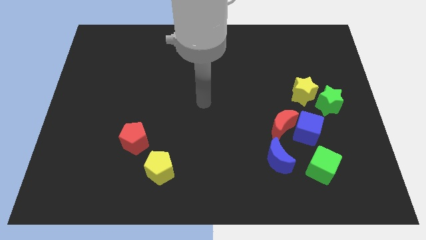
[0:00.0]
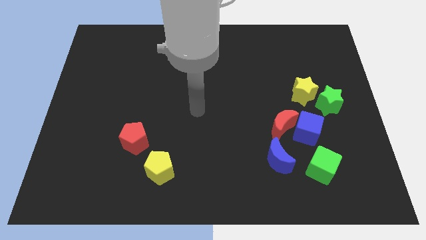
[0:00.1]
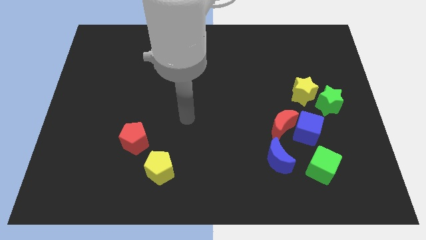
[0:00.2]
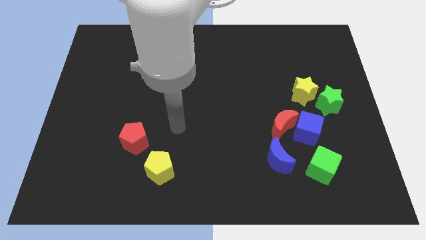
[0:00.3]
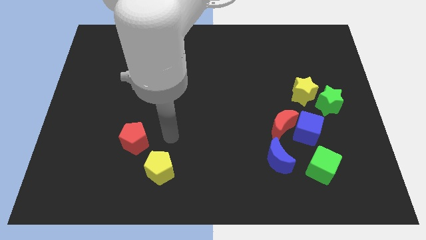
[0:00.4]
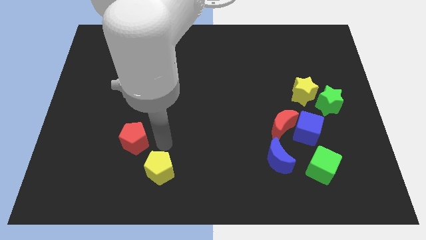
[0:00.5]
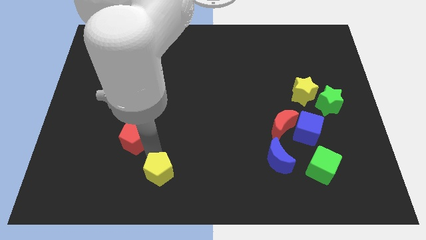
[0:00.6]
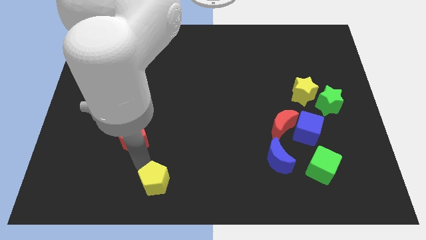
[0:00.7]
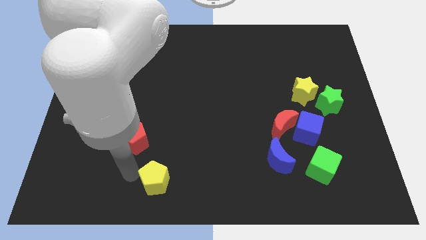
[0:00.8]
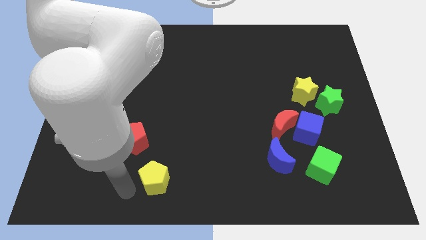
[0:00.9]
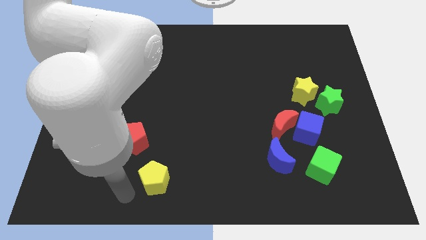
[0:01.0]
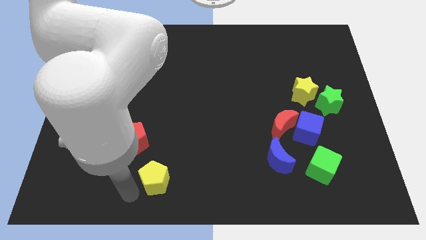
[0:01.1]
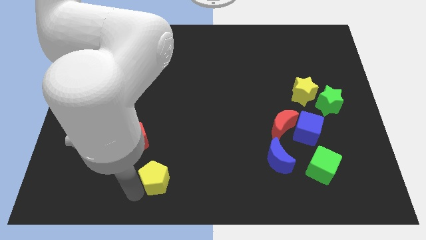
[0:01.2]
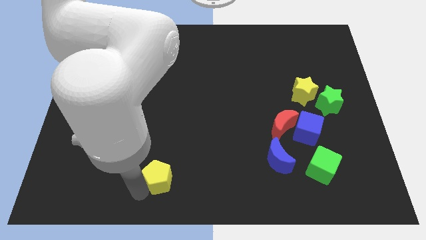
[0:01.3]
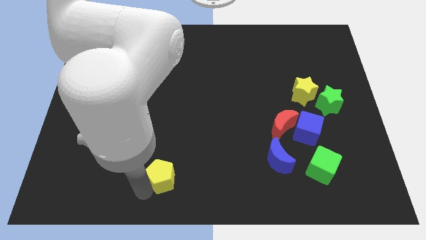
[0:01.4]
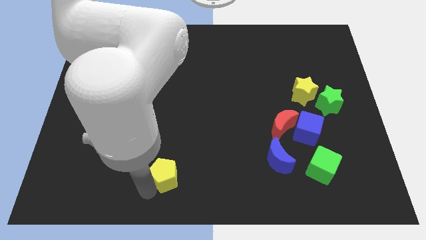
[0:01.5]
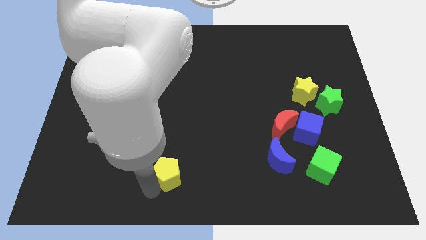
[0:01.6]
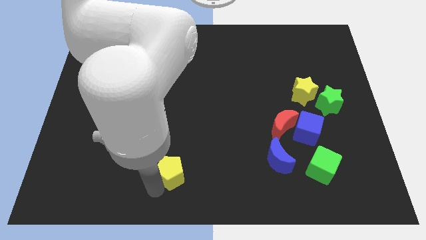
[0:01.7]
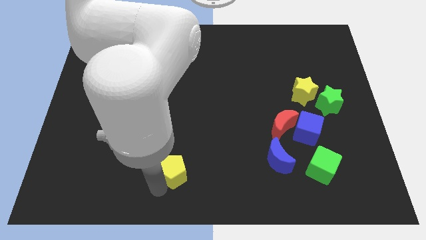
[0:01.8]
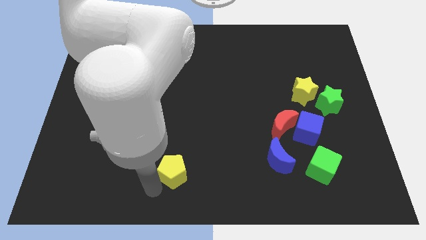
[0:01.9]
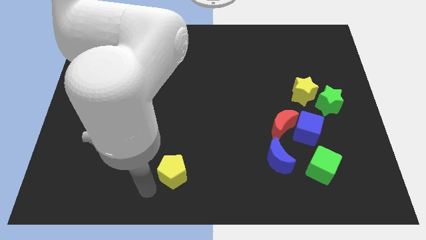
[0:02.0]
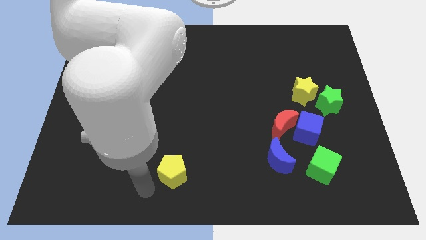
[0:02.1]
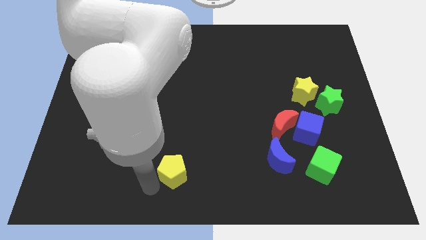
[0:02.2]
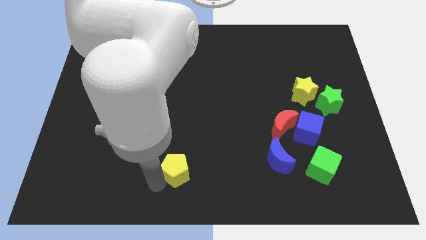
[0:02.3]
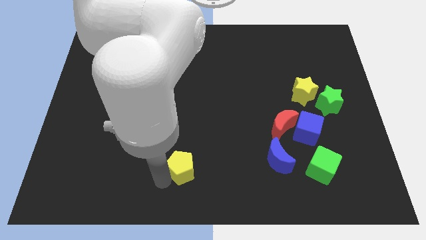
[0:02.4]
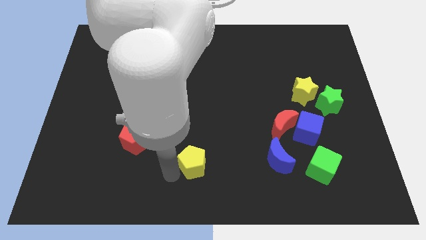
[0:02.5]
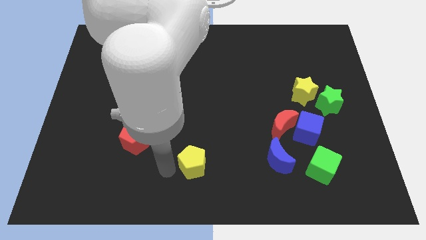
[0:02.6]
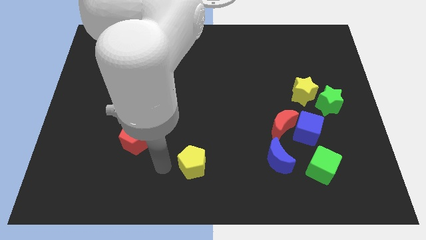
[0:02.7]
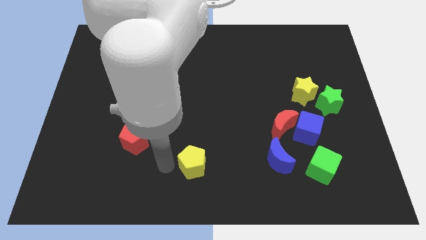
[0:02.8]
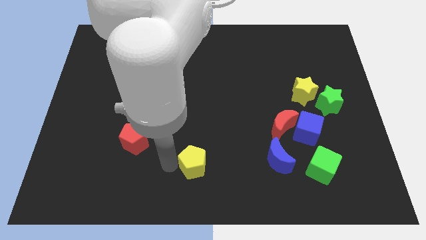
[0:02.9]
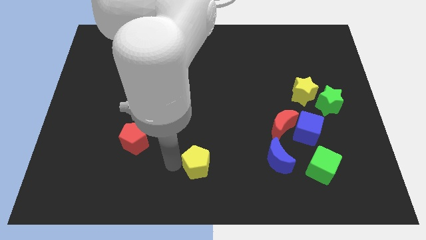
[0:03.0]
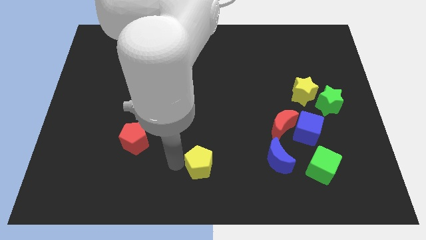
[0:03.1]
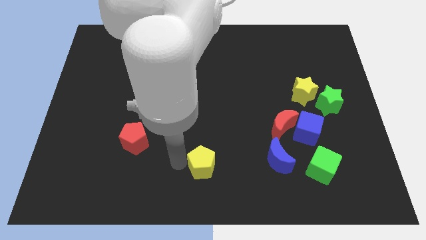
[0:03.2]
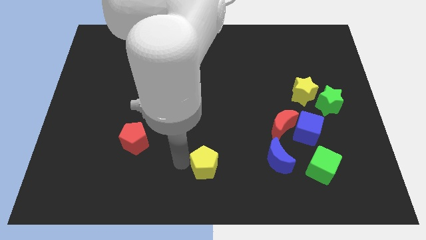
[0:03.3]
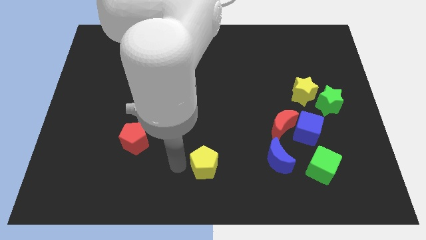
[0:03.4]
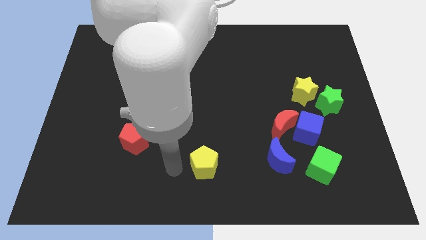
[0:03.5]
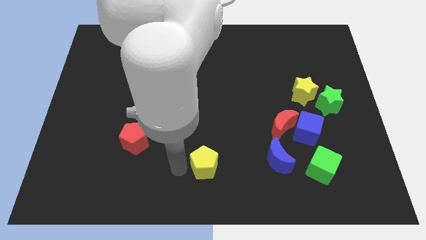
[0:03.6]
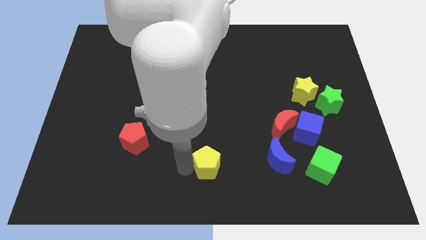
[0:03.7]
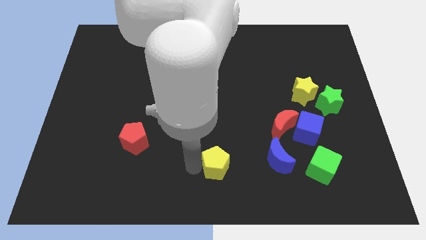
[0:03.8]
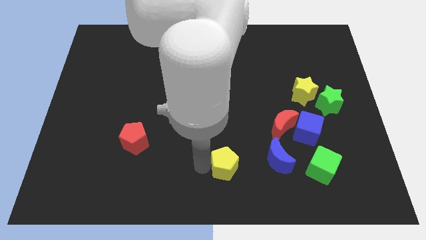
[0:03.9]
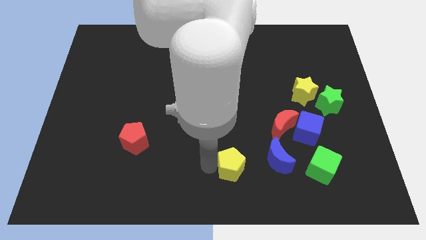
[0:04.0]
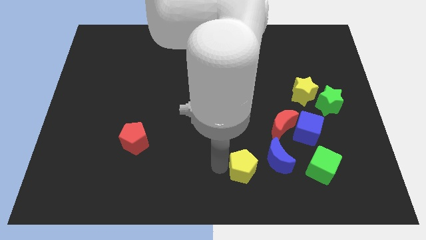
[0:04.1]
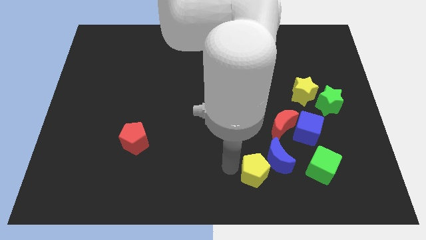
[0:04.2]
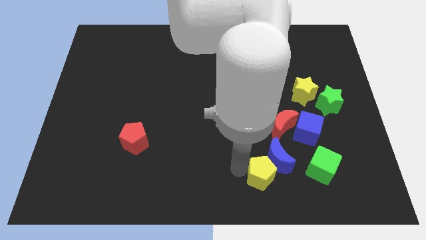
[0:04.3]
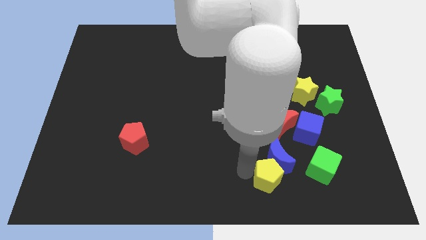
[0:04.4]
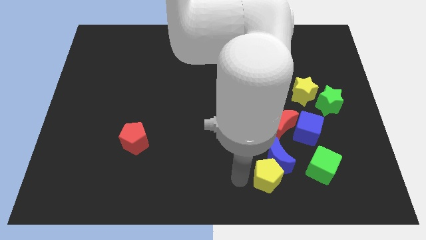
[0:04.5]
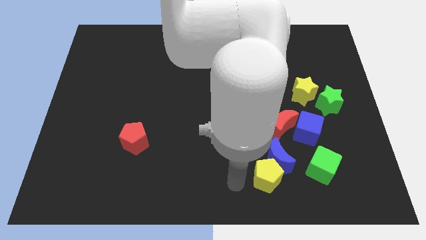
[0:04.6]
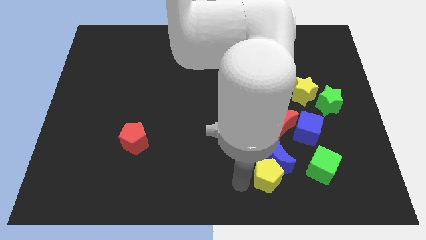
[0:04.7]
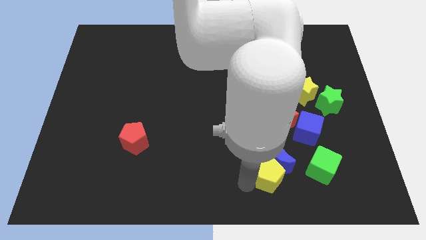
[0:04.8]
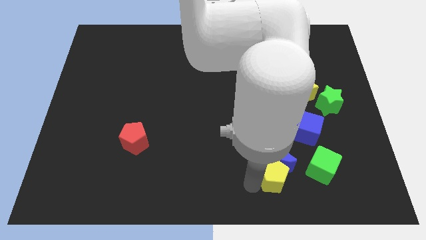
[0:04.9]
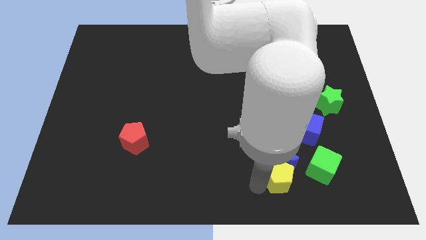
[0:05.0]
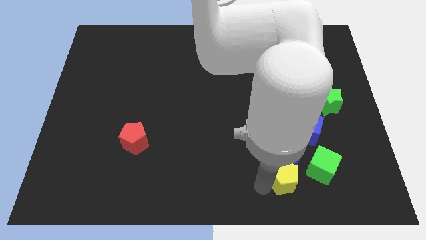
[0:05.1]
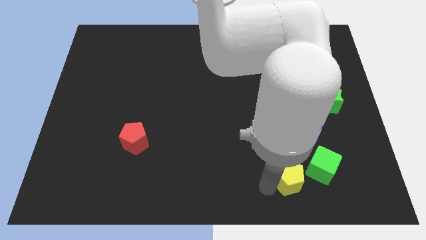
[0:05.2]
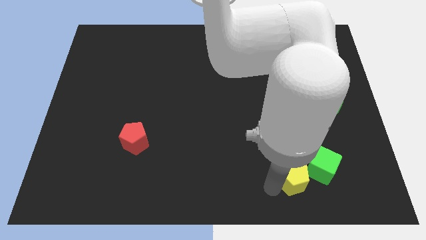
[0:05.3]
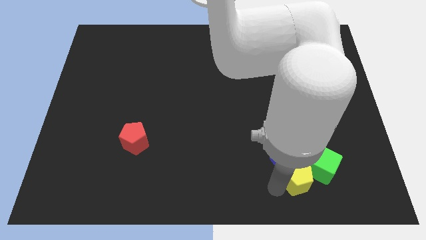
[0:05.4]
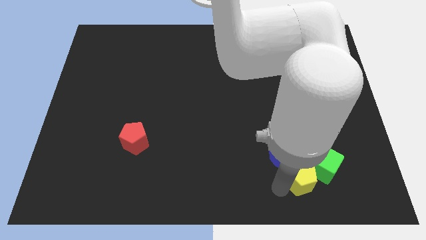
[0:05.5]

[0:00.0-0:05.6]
push the yellow pentagon close to the green cube

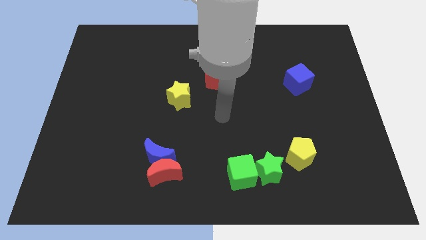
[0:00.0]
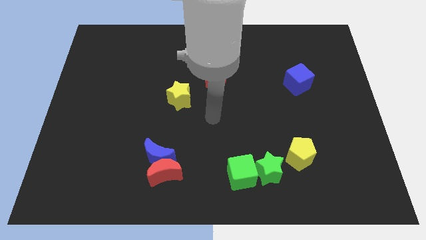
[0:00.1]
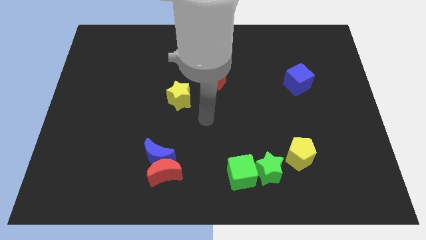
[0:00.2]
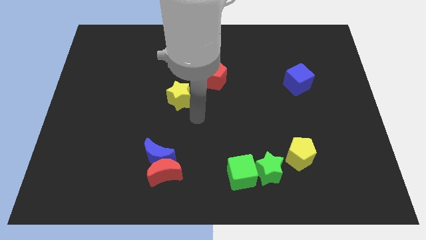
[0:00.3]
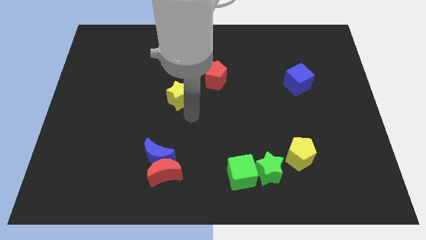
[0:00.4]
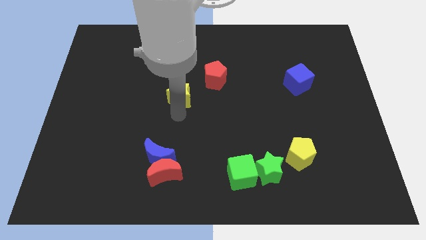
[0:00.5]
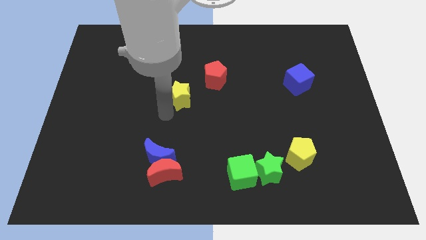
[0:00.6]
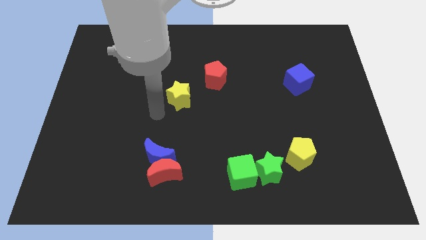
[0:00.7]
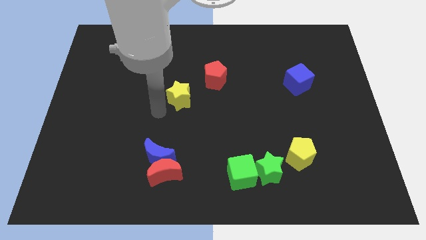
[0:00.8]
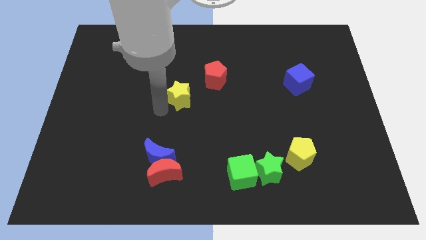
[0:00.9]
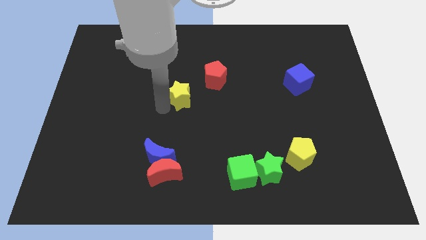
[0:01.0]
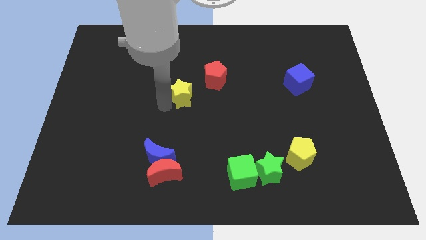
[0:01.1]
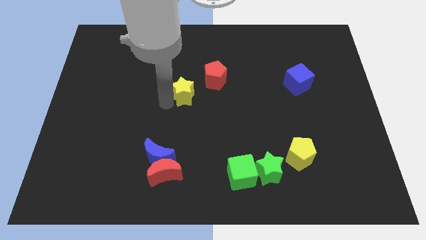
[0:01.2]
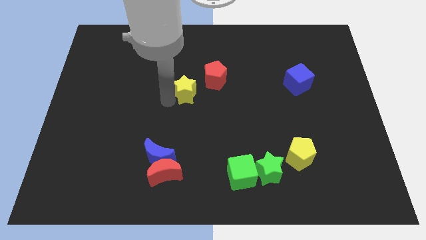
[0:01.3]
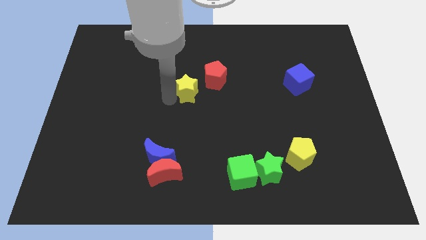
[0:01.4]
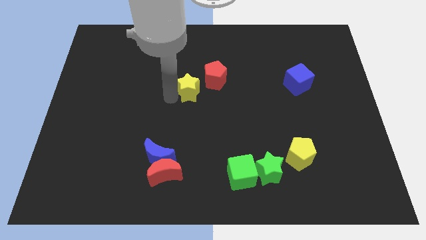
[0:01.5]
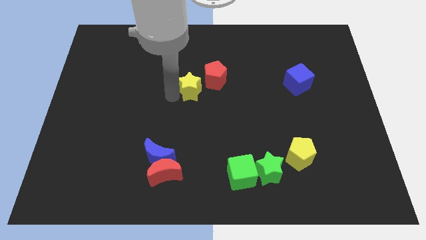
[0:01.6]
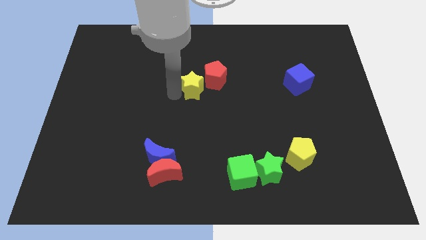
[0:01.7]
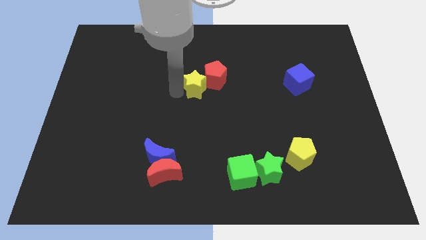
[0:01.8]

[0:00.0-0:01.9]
slide the yellow star to the red pentagon

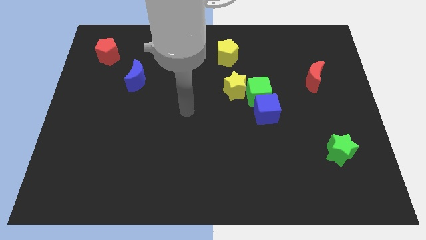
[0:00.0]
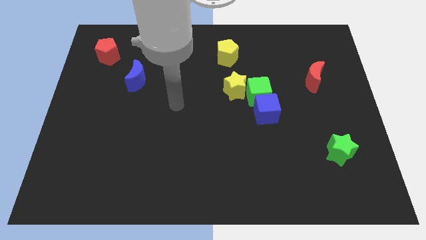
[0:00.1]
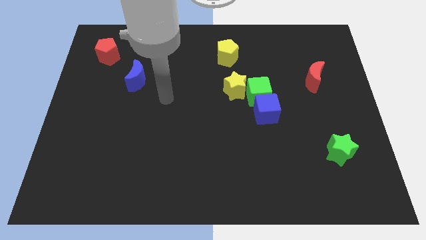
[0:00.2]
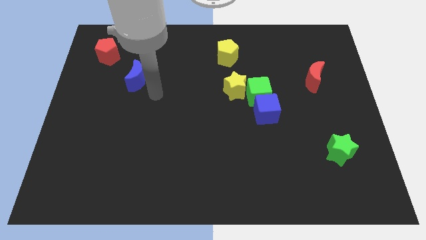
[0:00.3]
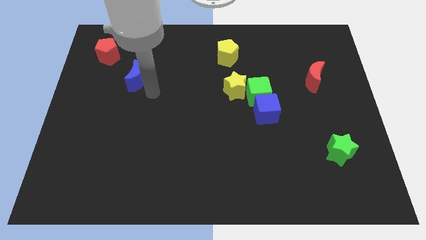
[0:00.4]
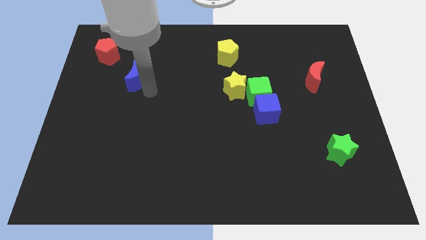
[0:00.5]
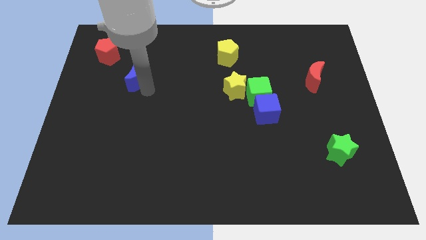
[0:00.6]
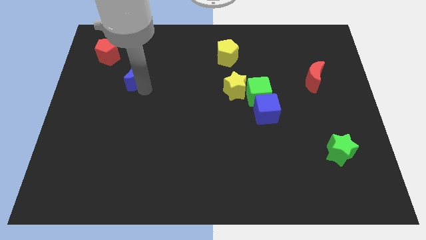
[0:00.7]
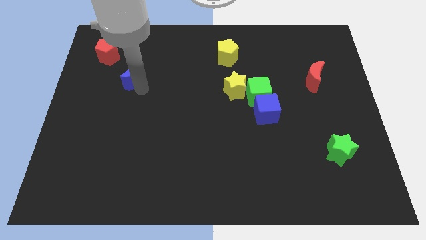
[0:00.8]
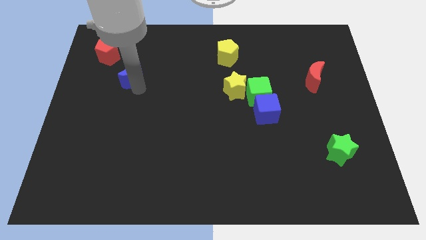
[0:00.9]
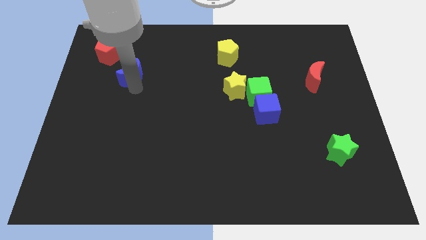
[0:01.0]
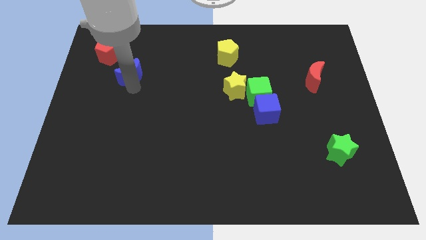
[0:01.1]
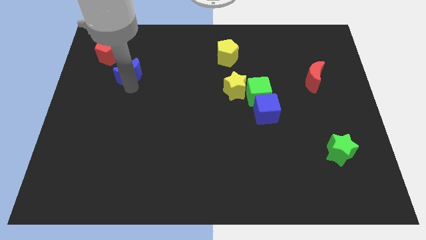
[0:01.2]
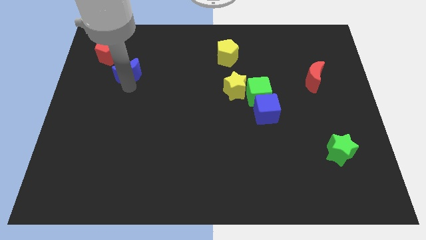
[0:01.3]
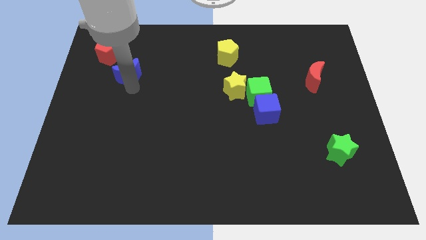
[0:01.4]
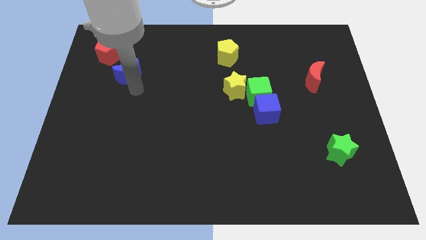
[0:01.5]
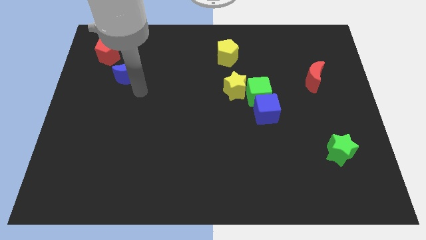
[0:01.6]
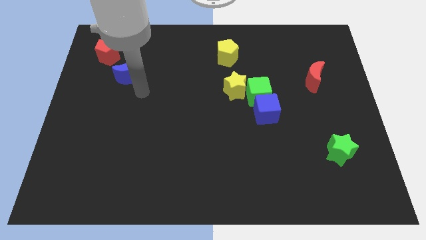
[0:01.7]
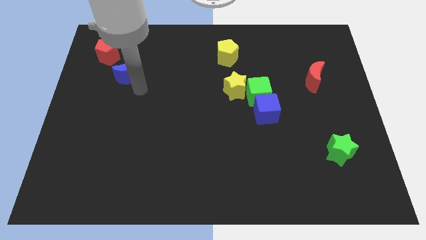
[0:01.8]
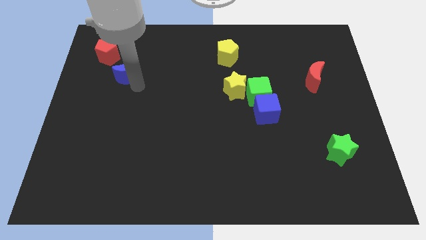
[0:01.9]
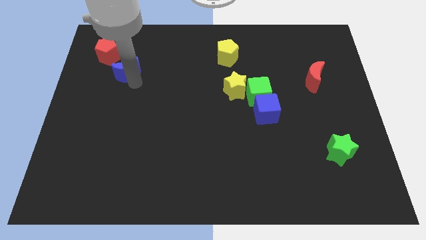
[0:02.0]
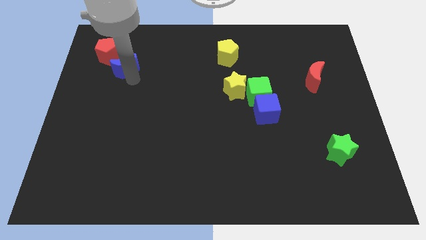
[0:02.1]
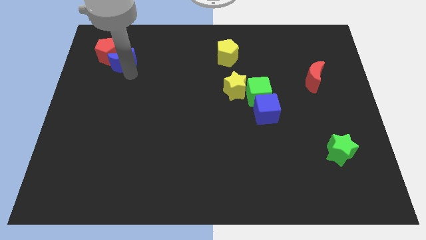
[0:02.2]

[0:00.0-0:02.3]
push the blue moon towards the red pentagon
